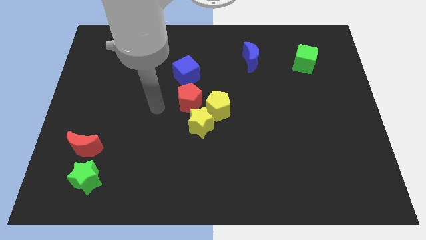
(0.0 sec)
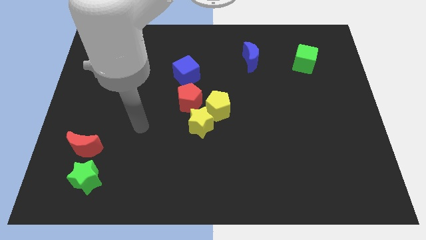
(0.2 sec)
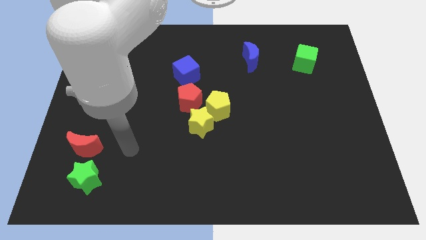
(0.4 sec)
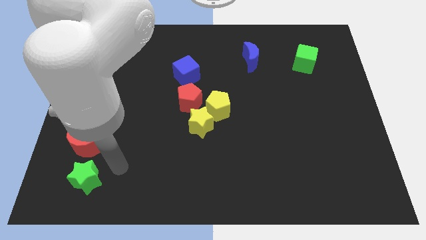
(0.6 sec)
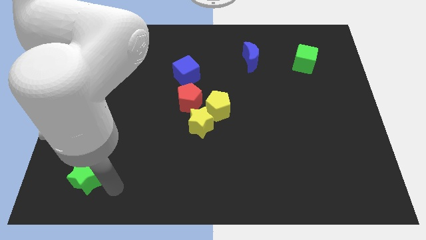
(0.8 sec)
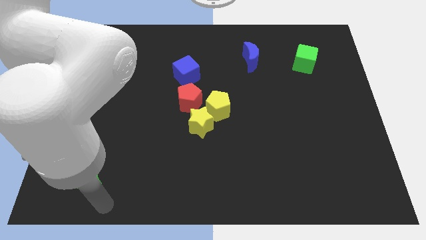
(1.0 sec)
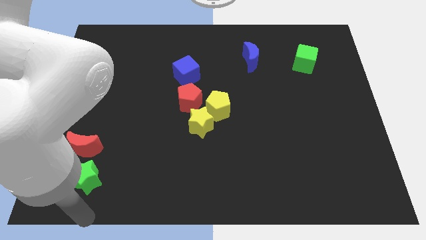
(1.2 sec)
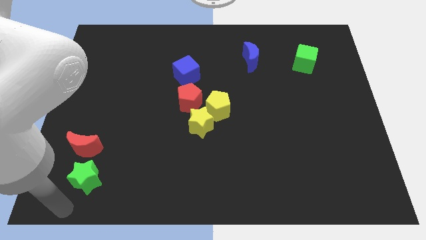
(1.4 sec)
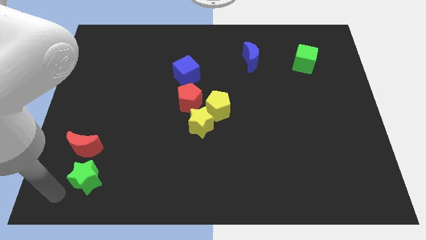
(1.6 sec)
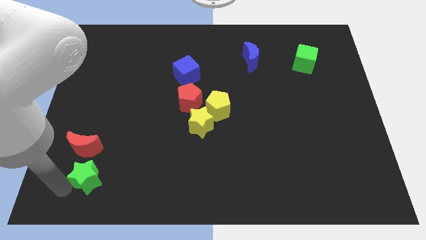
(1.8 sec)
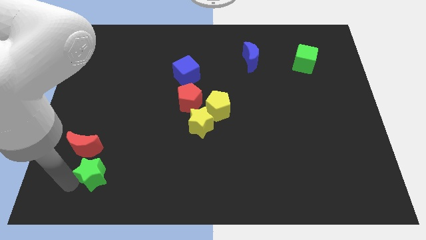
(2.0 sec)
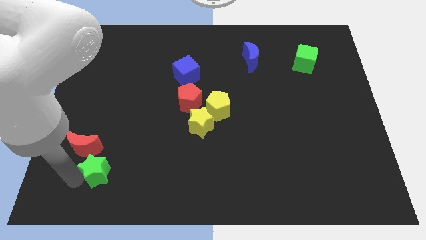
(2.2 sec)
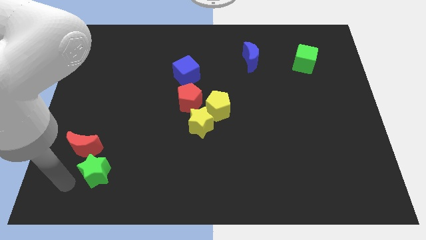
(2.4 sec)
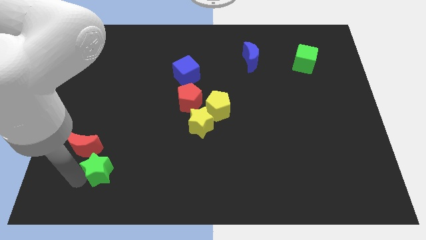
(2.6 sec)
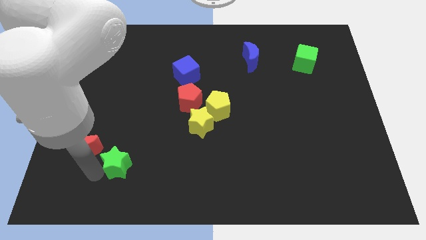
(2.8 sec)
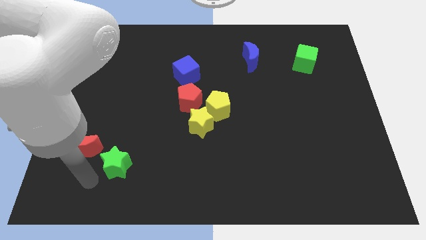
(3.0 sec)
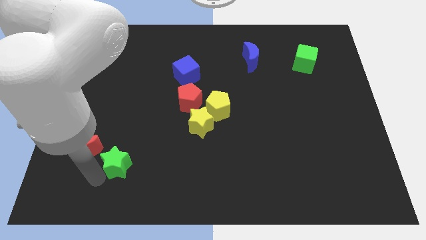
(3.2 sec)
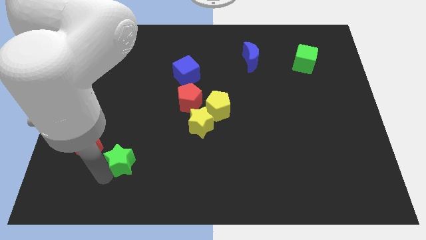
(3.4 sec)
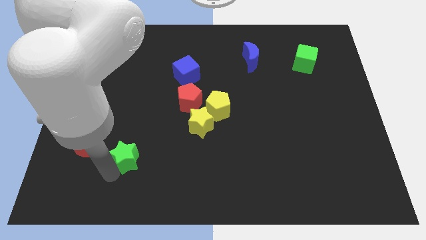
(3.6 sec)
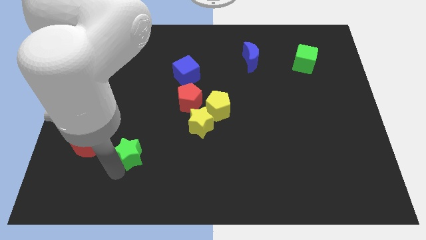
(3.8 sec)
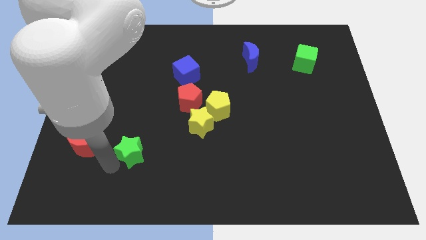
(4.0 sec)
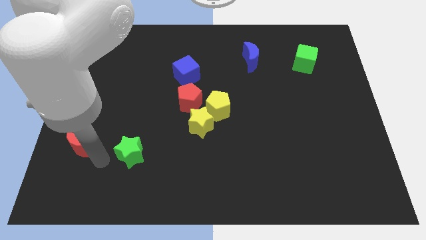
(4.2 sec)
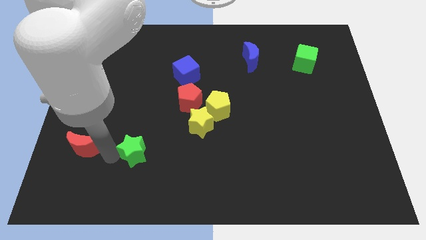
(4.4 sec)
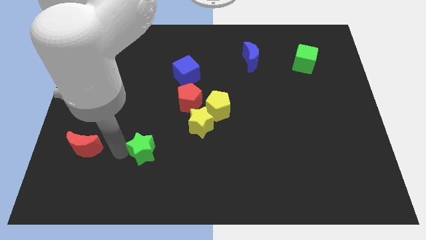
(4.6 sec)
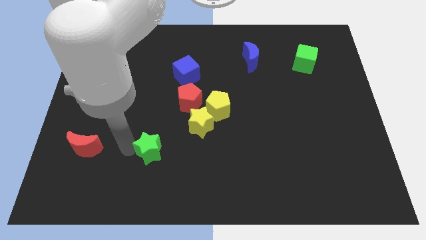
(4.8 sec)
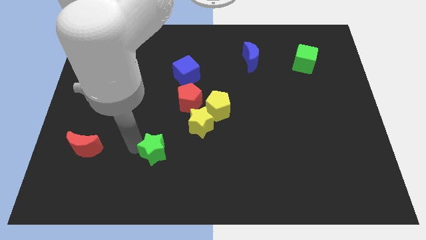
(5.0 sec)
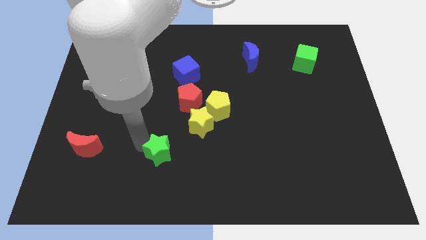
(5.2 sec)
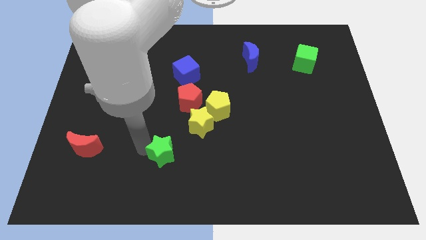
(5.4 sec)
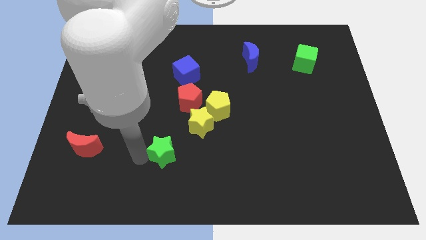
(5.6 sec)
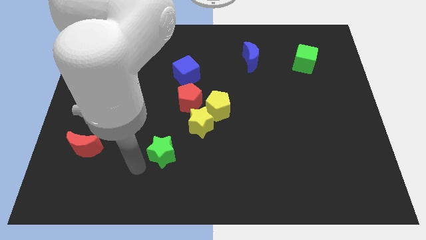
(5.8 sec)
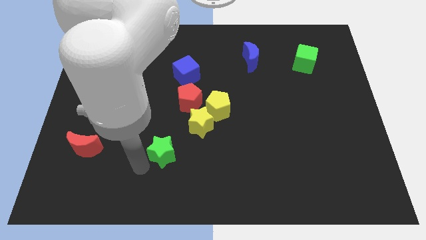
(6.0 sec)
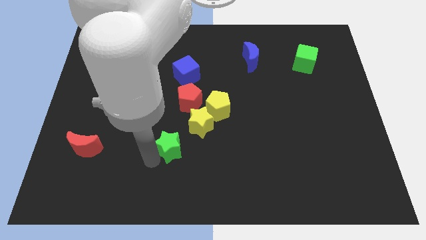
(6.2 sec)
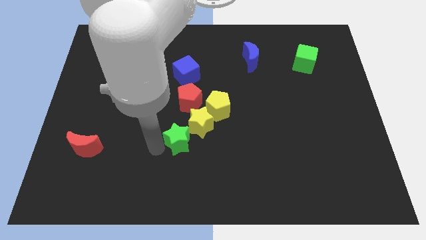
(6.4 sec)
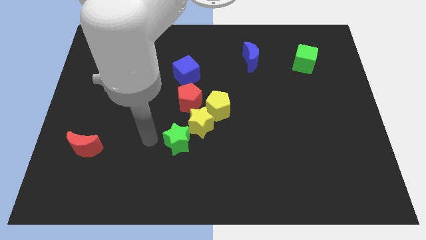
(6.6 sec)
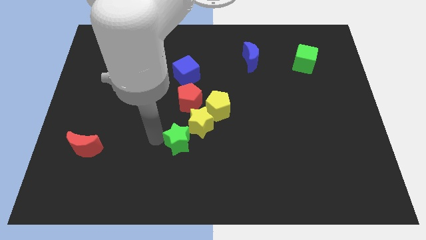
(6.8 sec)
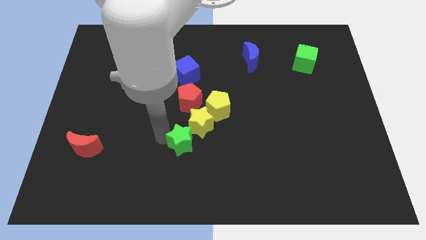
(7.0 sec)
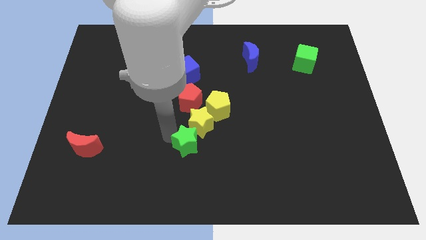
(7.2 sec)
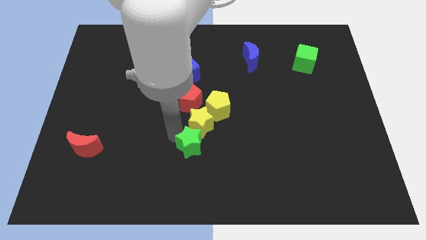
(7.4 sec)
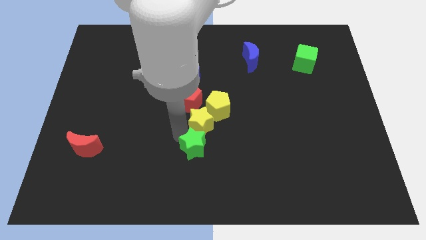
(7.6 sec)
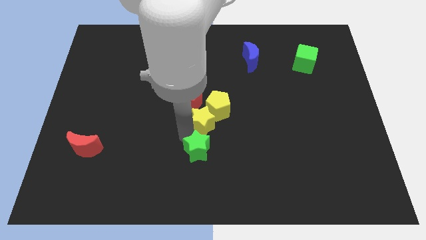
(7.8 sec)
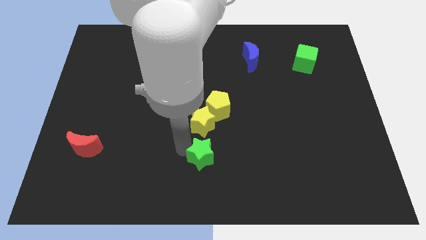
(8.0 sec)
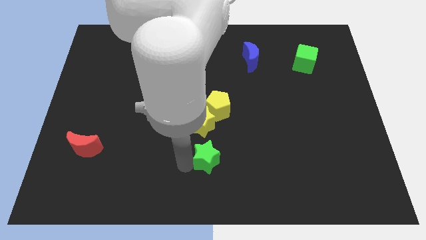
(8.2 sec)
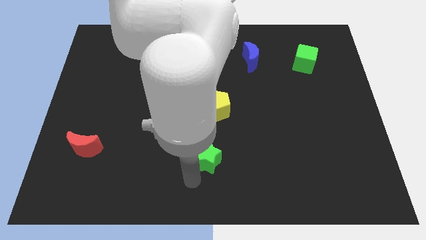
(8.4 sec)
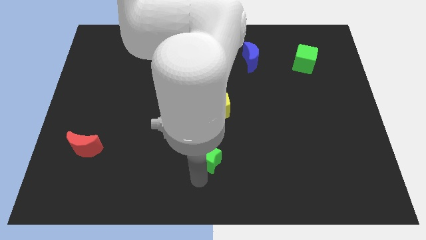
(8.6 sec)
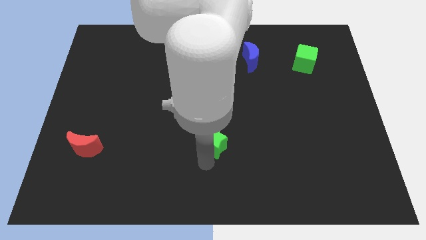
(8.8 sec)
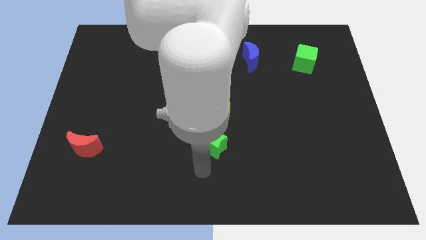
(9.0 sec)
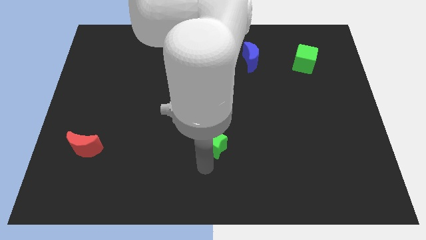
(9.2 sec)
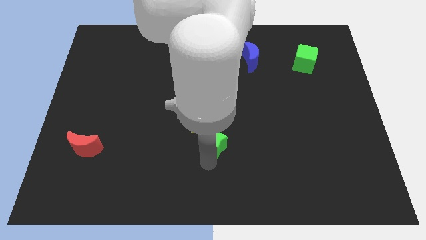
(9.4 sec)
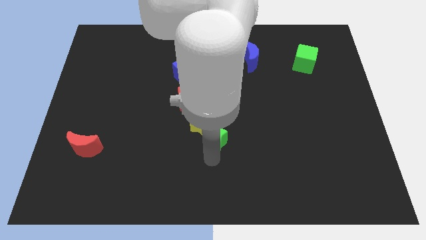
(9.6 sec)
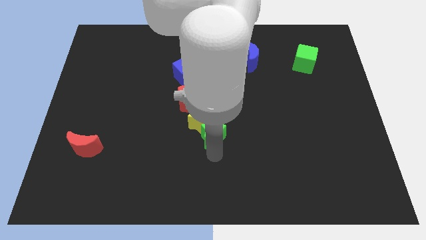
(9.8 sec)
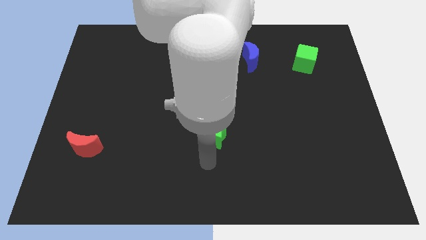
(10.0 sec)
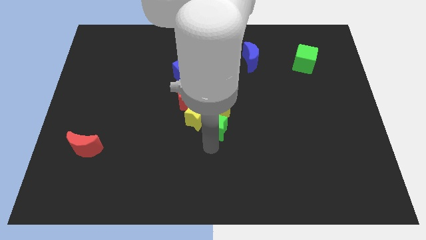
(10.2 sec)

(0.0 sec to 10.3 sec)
put the green star towards the yellow pentagon

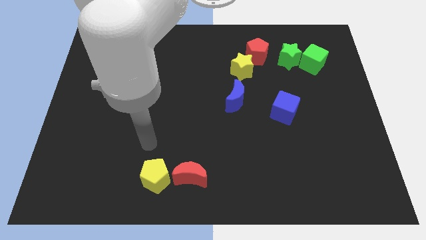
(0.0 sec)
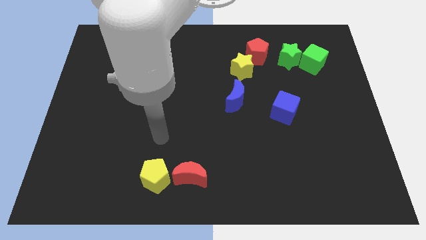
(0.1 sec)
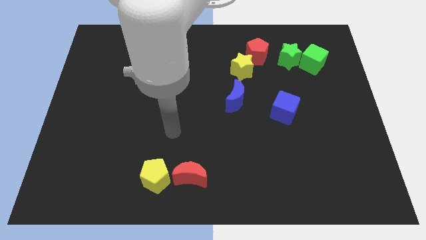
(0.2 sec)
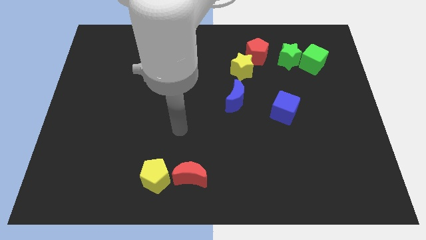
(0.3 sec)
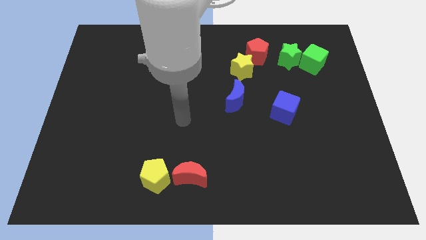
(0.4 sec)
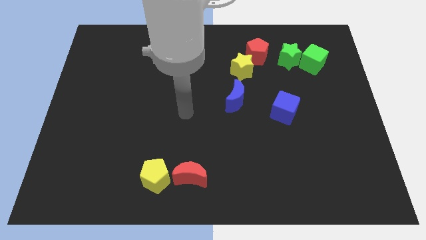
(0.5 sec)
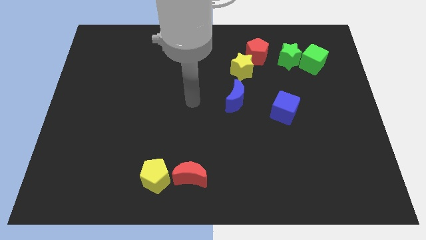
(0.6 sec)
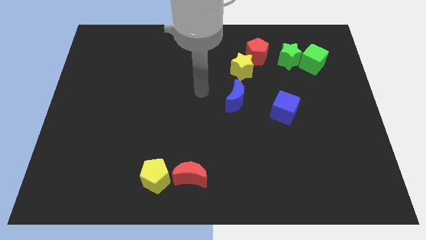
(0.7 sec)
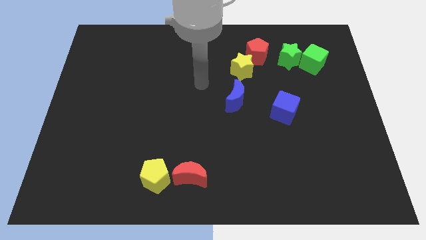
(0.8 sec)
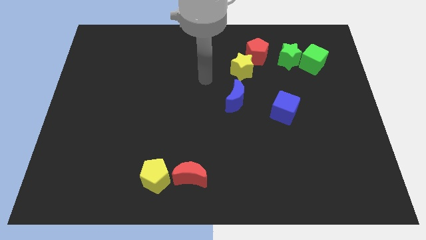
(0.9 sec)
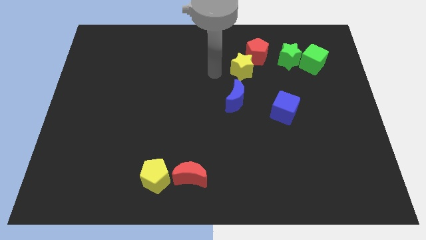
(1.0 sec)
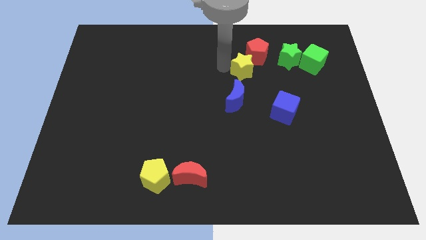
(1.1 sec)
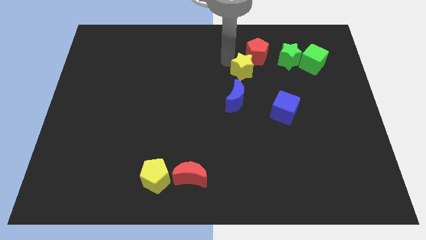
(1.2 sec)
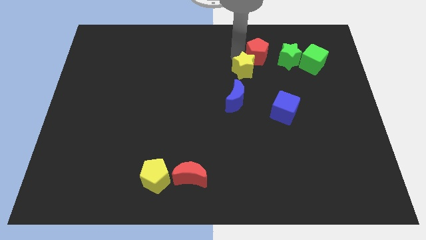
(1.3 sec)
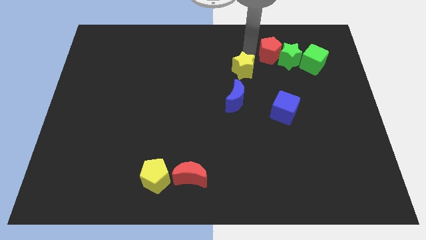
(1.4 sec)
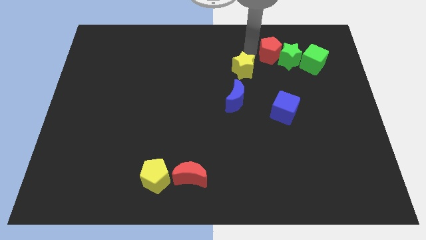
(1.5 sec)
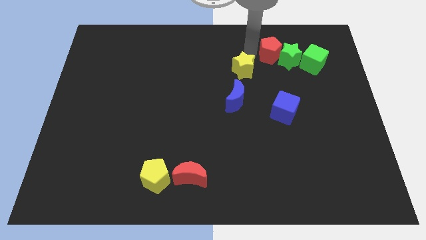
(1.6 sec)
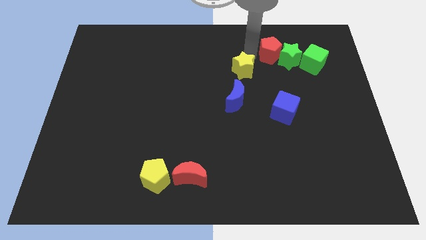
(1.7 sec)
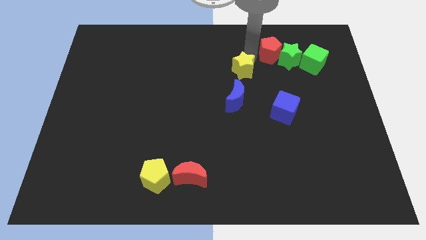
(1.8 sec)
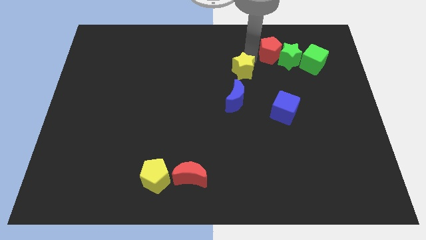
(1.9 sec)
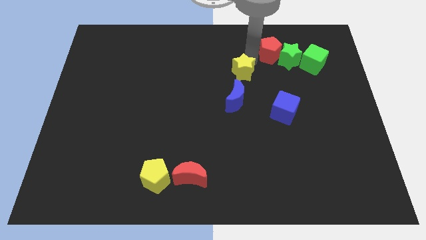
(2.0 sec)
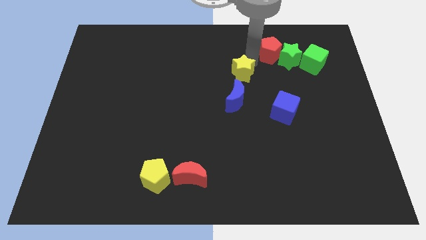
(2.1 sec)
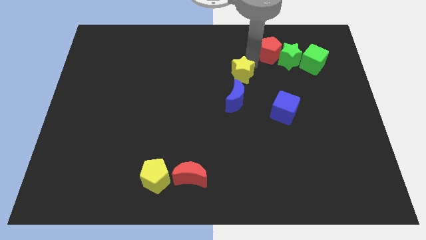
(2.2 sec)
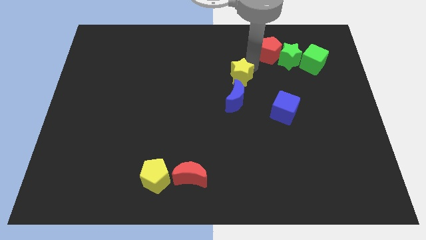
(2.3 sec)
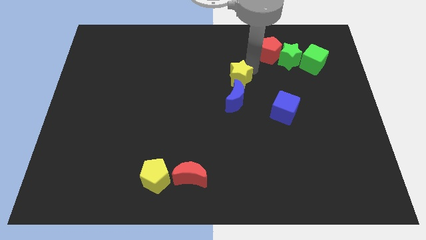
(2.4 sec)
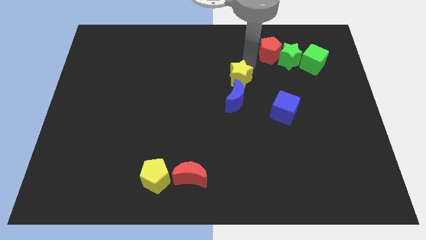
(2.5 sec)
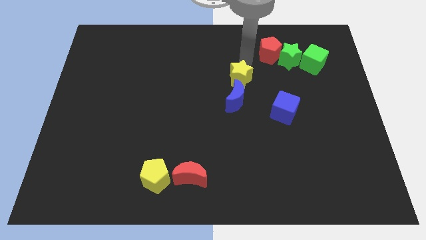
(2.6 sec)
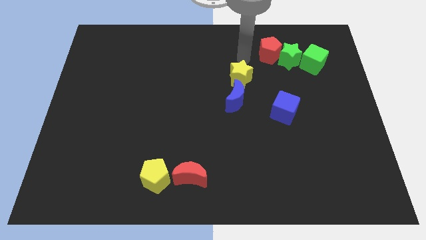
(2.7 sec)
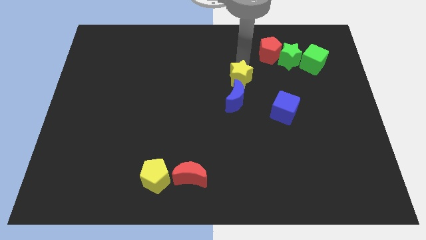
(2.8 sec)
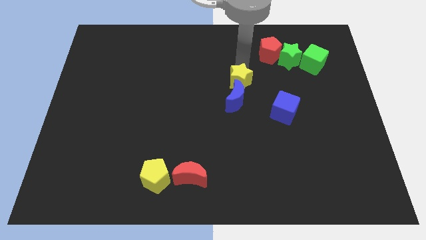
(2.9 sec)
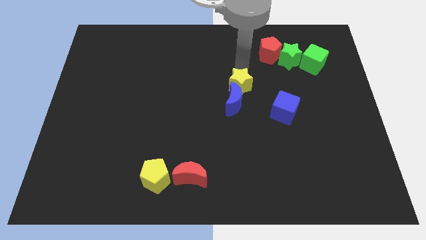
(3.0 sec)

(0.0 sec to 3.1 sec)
push the yellow star towards the blue moon
